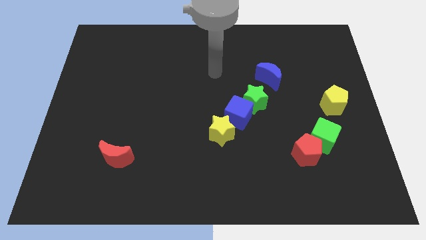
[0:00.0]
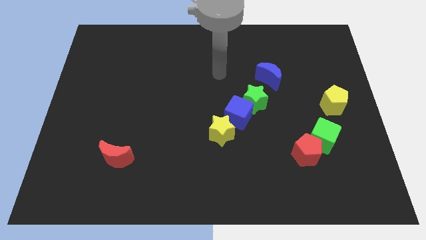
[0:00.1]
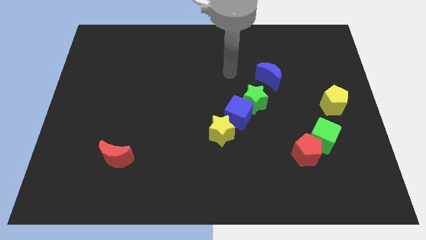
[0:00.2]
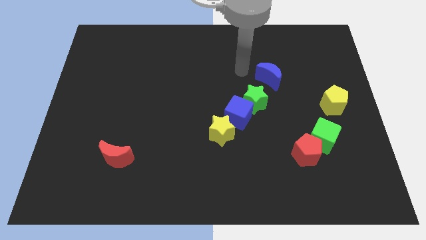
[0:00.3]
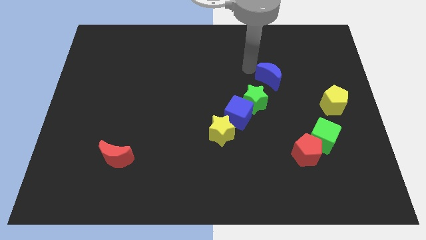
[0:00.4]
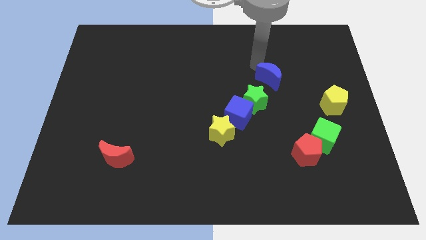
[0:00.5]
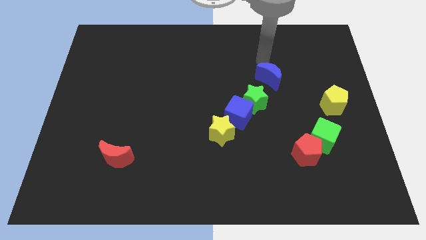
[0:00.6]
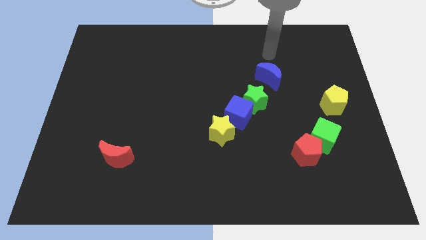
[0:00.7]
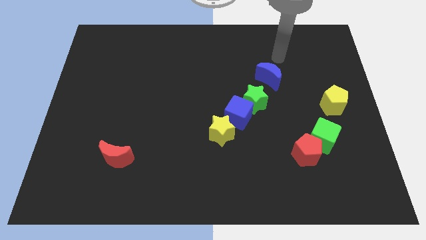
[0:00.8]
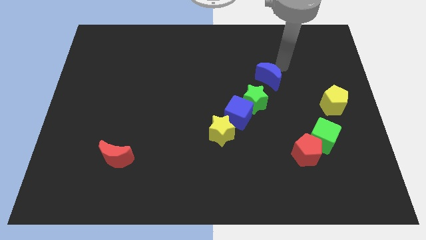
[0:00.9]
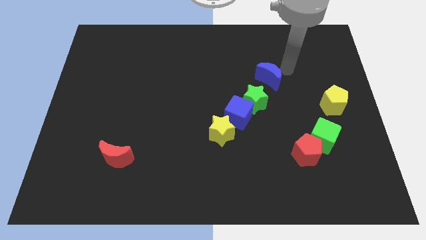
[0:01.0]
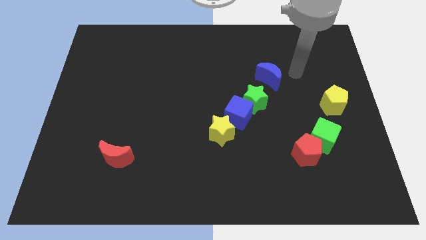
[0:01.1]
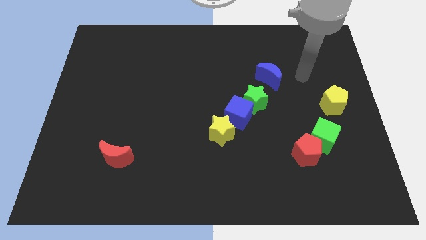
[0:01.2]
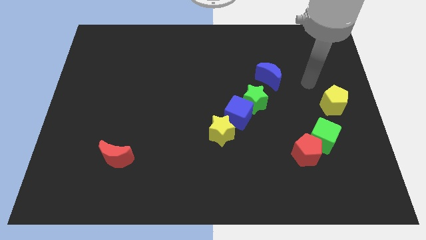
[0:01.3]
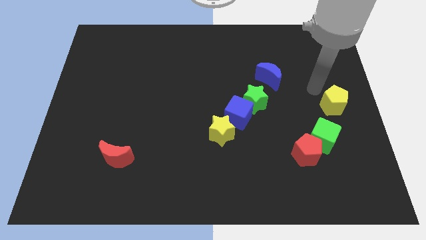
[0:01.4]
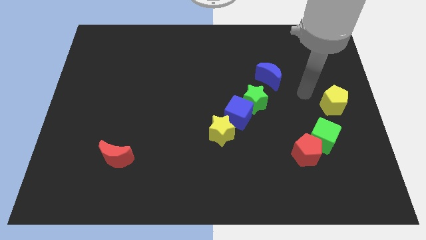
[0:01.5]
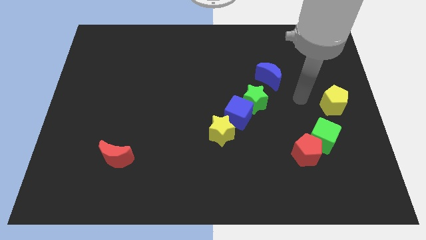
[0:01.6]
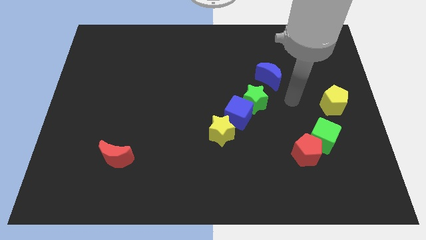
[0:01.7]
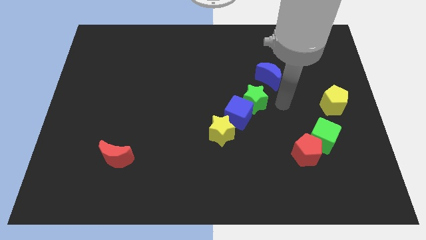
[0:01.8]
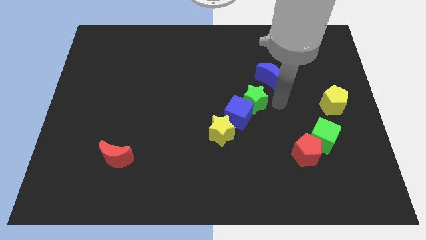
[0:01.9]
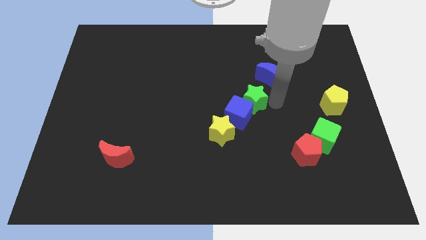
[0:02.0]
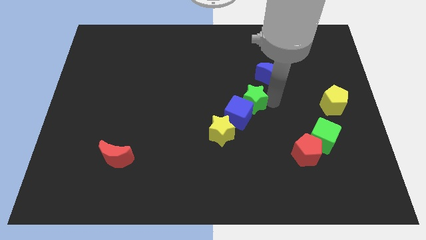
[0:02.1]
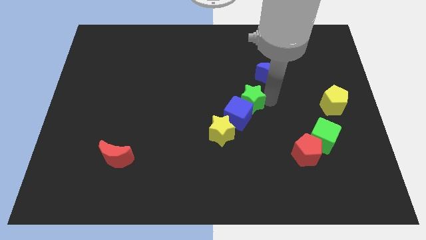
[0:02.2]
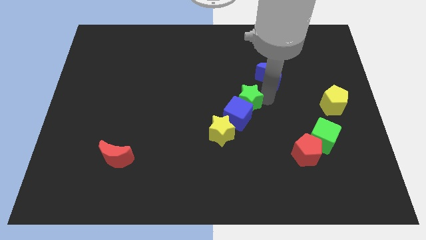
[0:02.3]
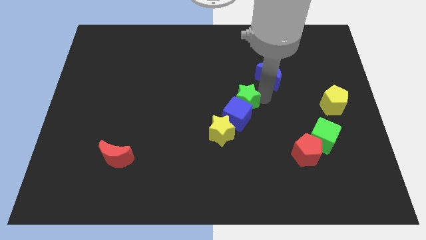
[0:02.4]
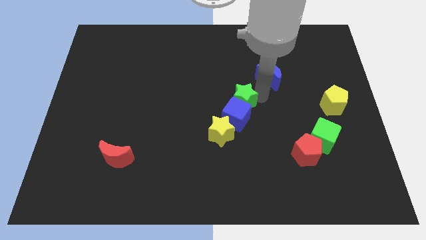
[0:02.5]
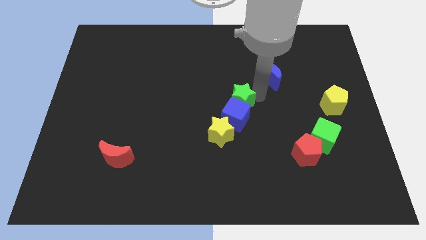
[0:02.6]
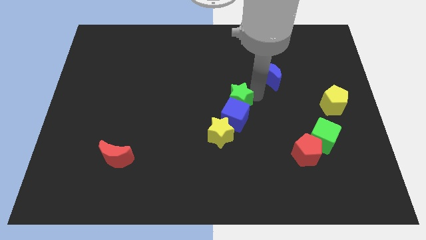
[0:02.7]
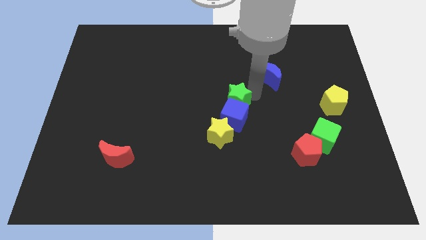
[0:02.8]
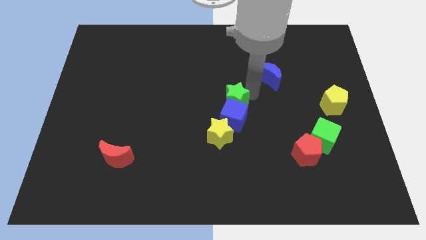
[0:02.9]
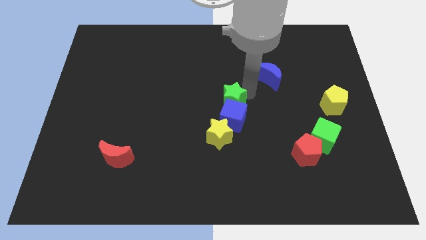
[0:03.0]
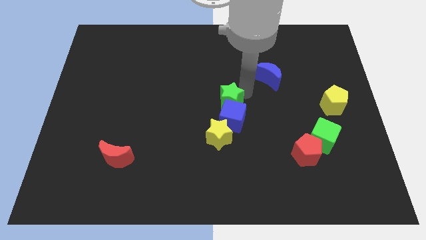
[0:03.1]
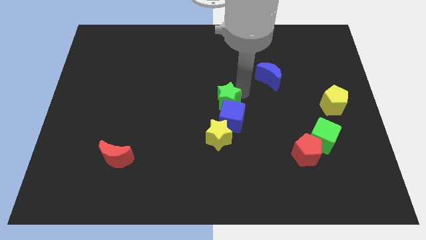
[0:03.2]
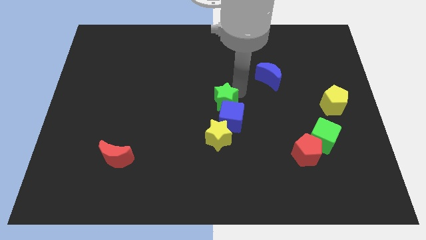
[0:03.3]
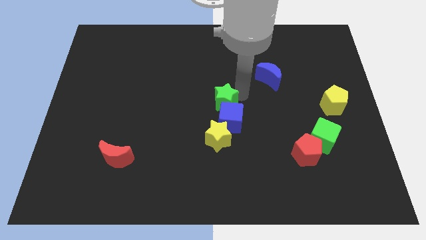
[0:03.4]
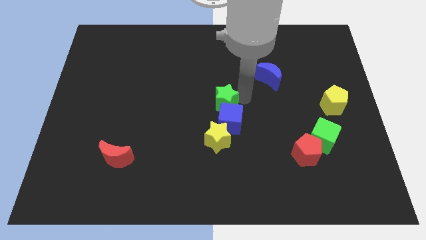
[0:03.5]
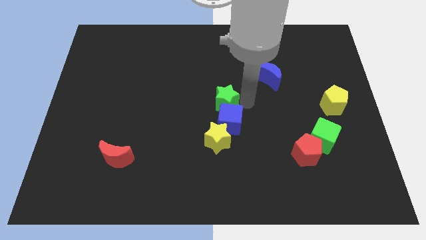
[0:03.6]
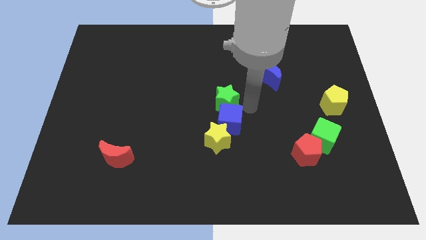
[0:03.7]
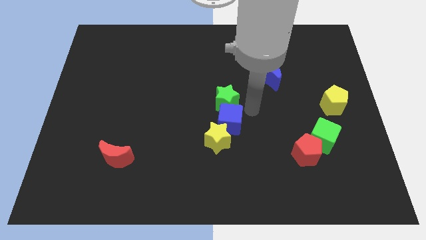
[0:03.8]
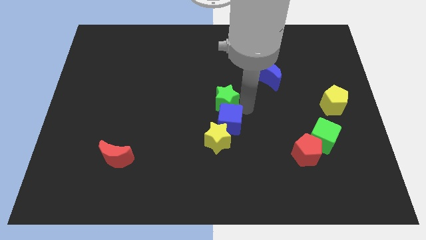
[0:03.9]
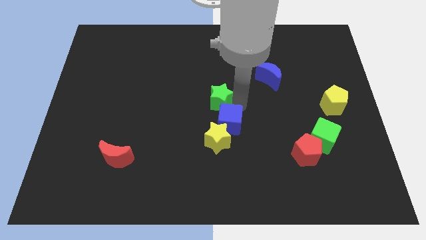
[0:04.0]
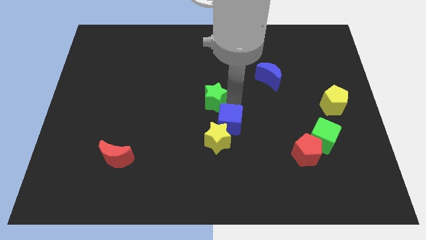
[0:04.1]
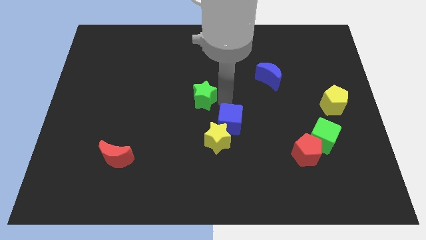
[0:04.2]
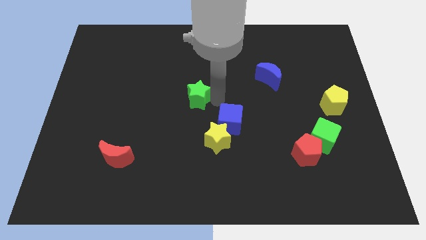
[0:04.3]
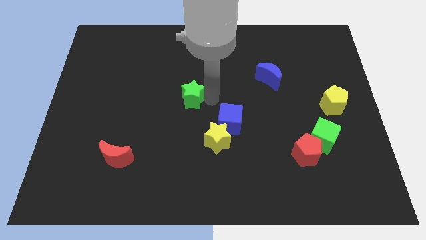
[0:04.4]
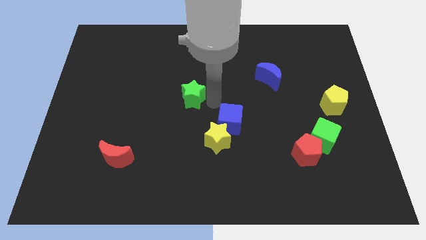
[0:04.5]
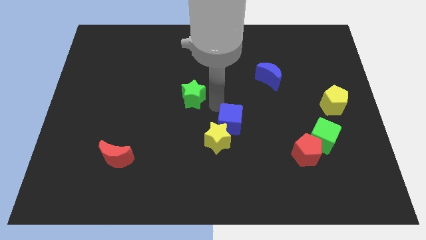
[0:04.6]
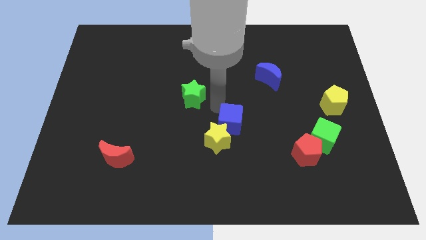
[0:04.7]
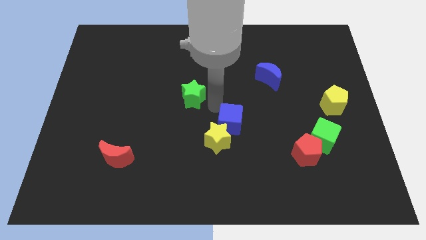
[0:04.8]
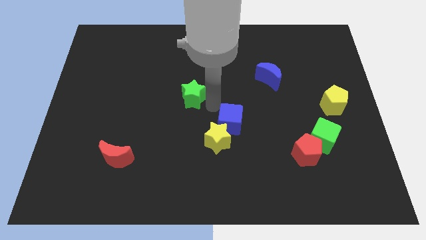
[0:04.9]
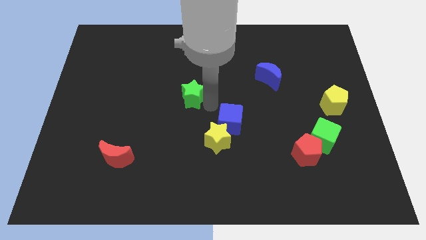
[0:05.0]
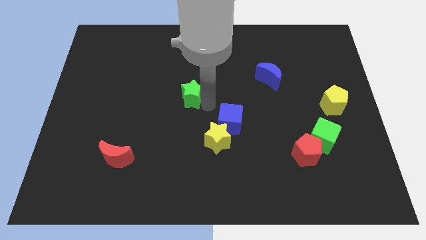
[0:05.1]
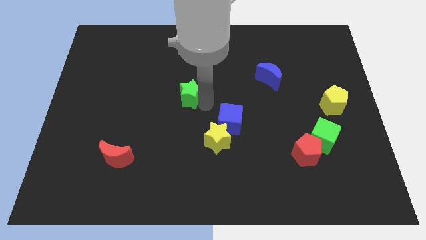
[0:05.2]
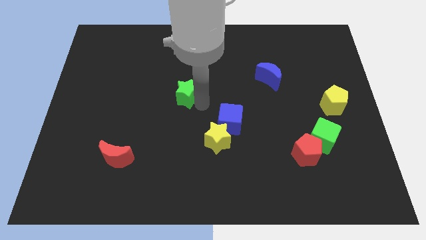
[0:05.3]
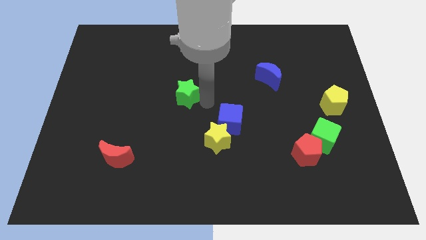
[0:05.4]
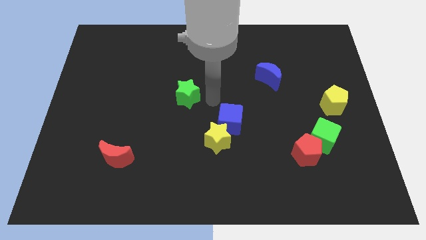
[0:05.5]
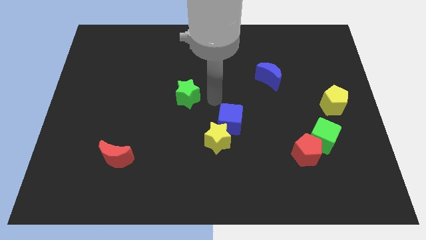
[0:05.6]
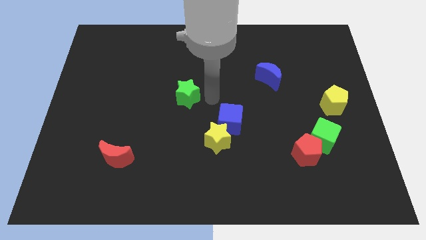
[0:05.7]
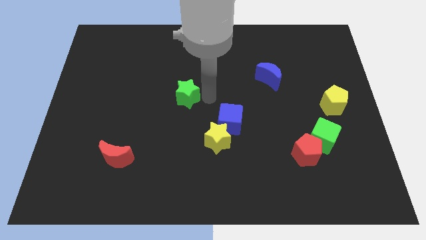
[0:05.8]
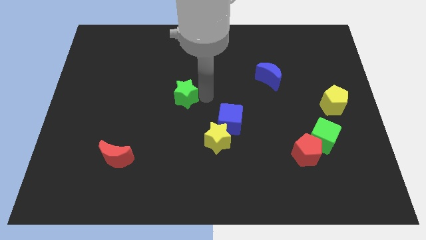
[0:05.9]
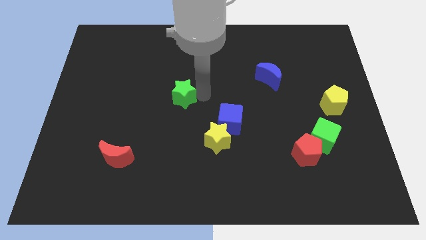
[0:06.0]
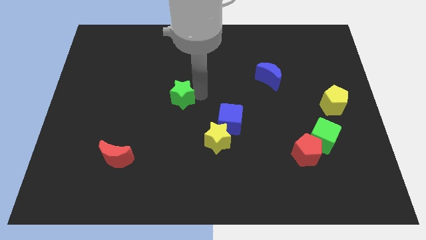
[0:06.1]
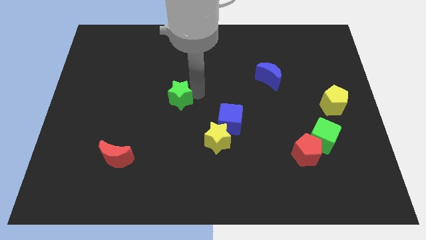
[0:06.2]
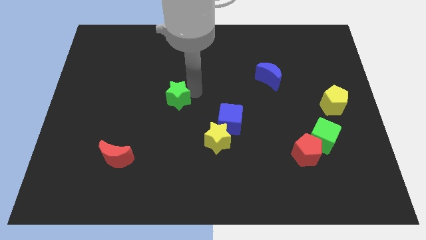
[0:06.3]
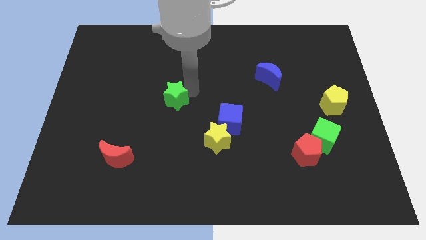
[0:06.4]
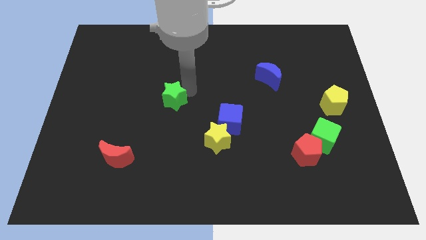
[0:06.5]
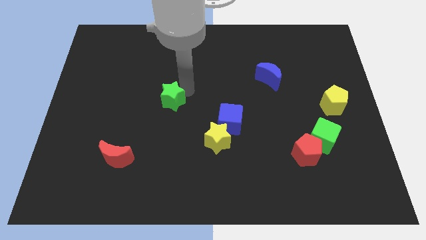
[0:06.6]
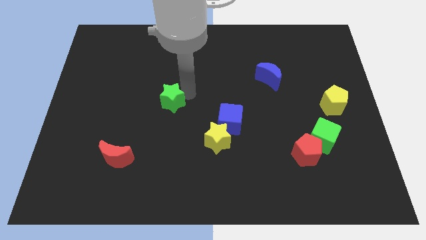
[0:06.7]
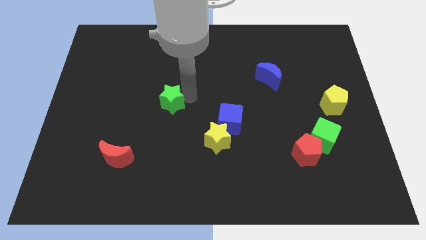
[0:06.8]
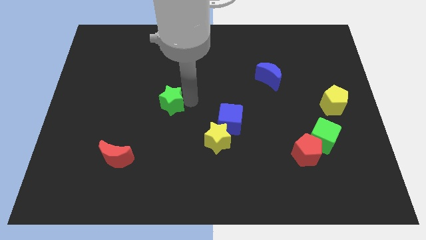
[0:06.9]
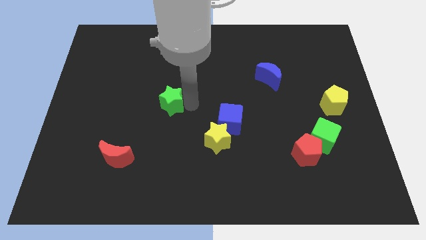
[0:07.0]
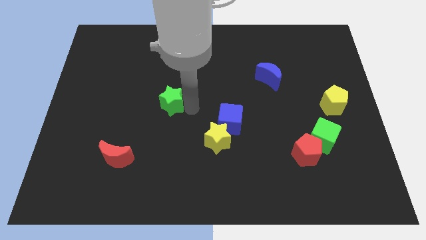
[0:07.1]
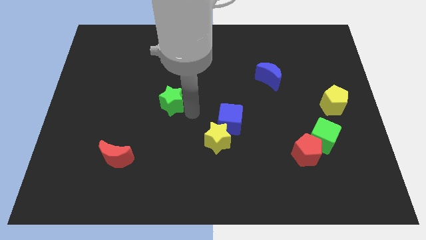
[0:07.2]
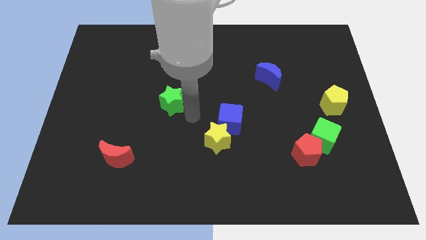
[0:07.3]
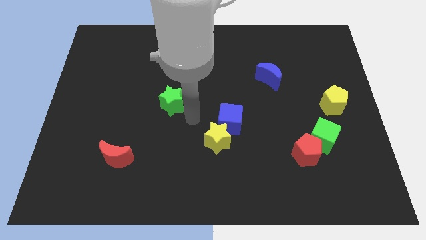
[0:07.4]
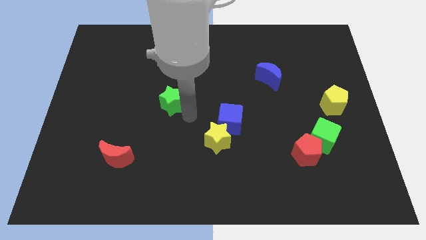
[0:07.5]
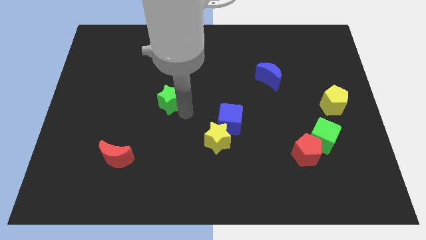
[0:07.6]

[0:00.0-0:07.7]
slide the green star to the left
